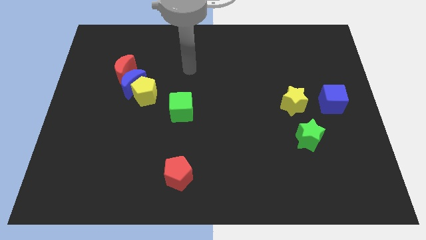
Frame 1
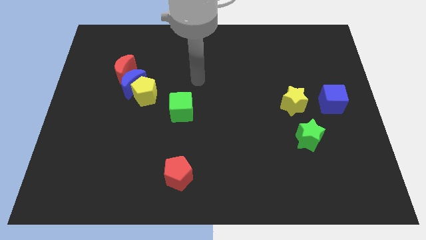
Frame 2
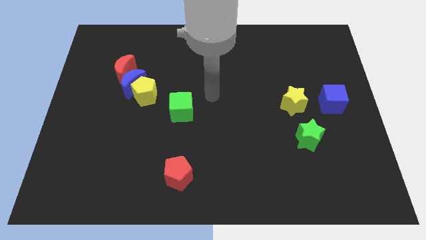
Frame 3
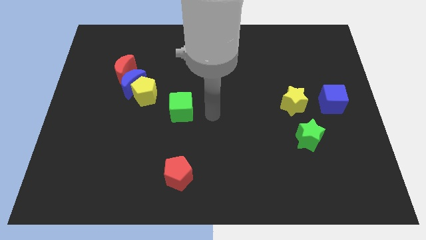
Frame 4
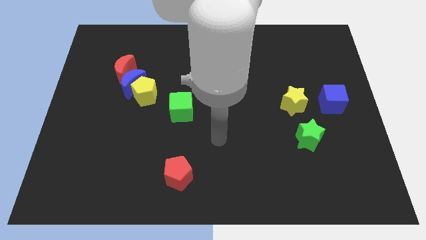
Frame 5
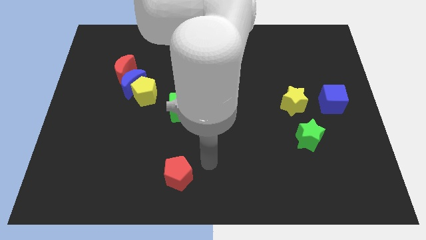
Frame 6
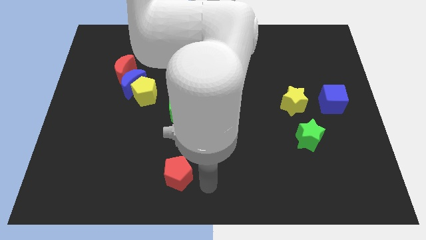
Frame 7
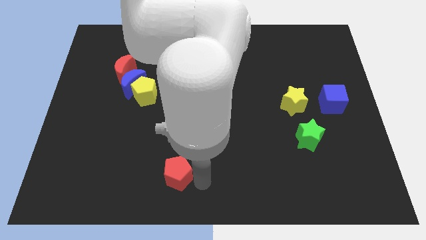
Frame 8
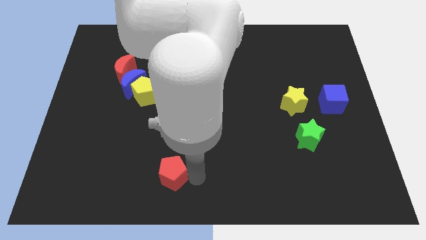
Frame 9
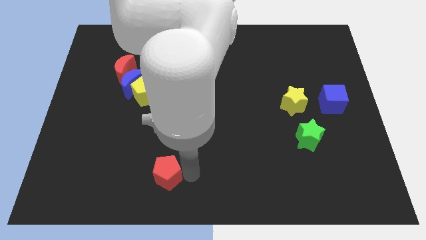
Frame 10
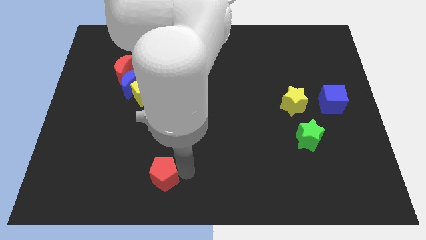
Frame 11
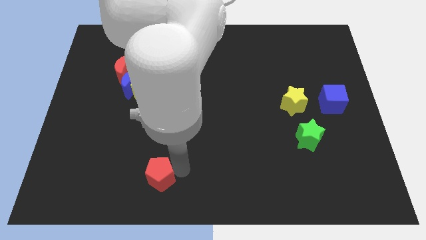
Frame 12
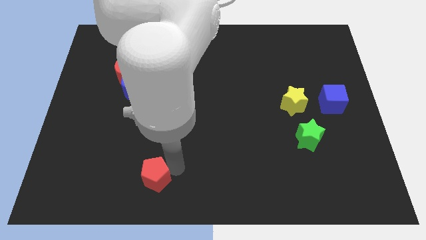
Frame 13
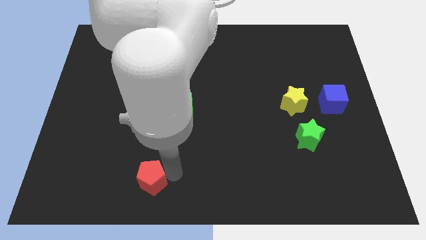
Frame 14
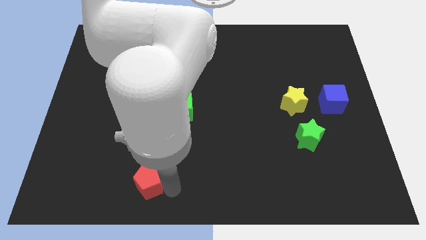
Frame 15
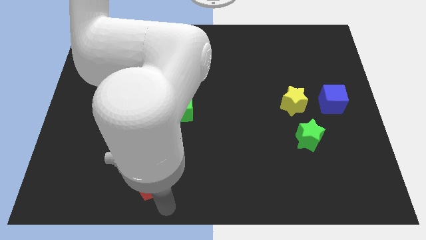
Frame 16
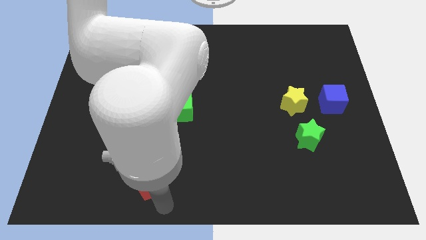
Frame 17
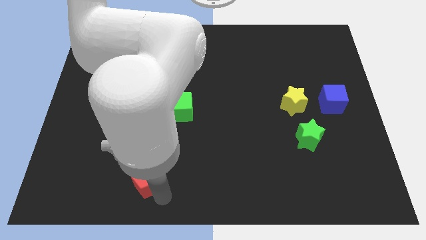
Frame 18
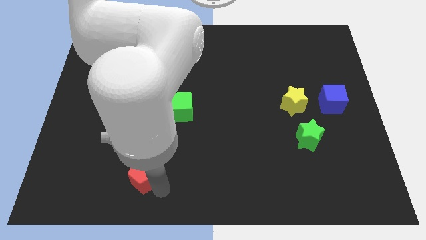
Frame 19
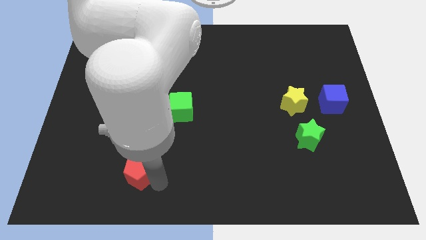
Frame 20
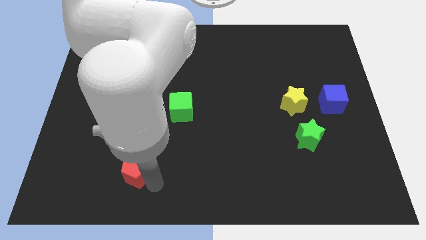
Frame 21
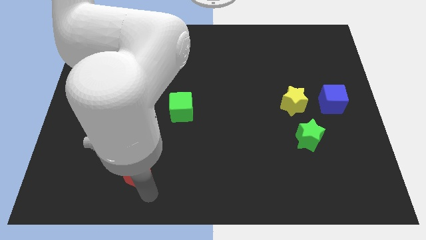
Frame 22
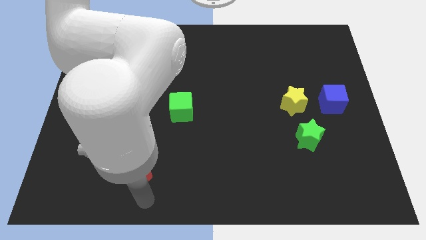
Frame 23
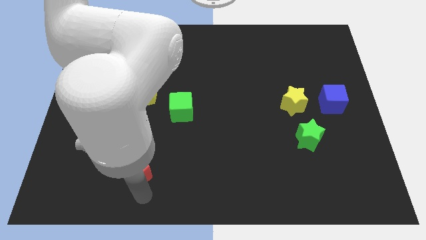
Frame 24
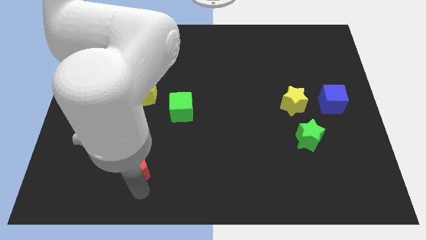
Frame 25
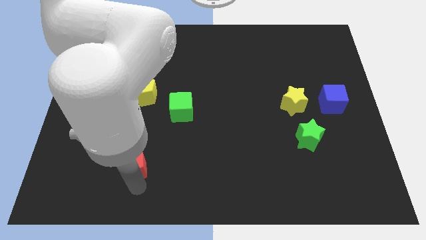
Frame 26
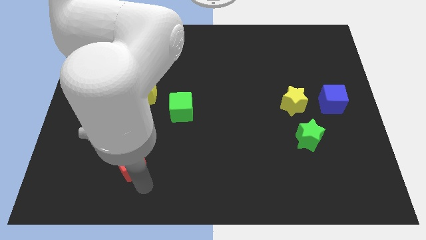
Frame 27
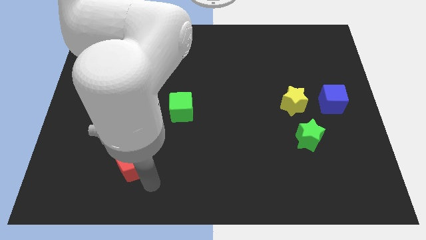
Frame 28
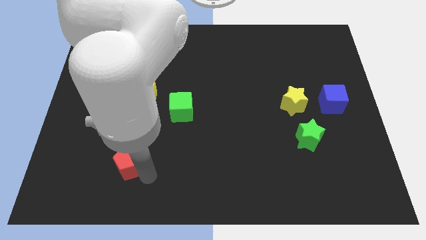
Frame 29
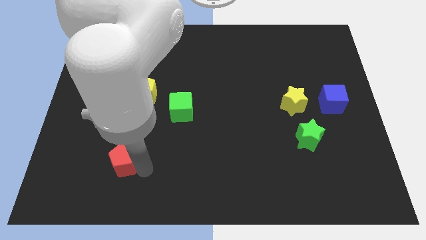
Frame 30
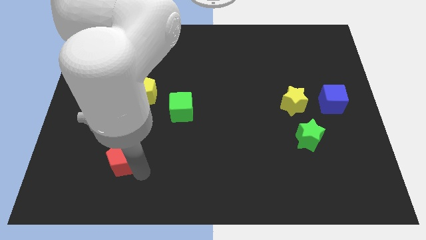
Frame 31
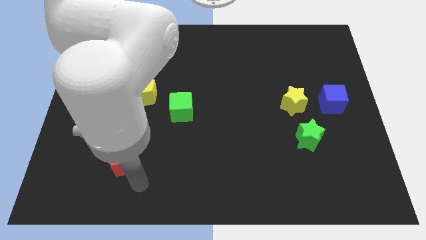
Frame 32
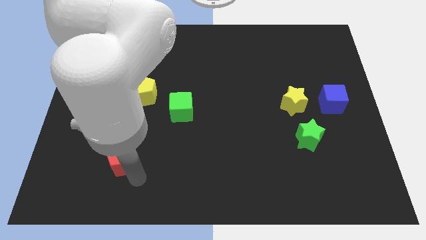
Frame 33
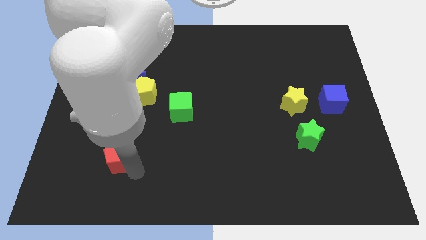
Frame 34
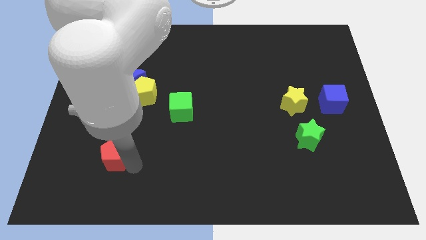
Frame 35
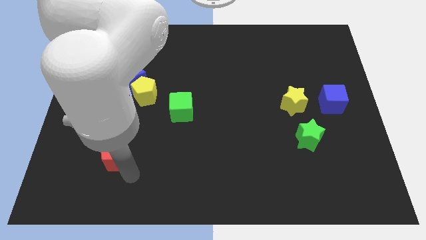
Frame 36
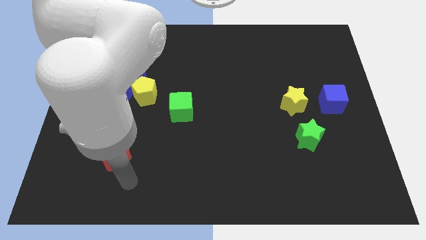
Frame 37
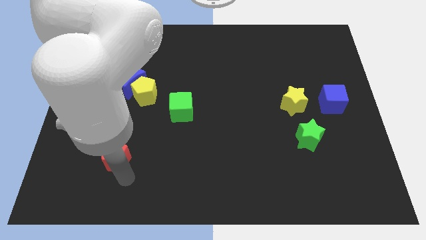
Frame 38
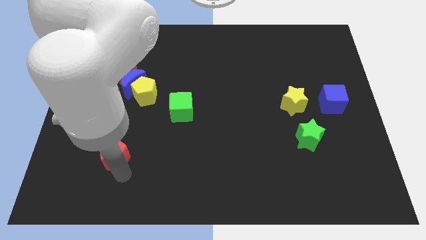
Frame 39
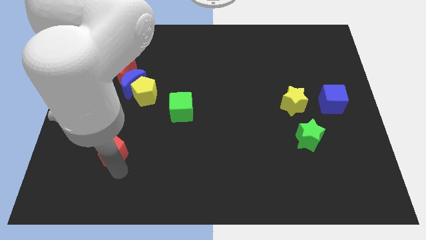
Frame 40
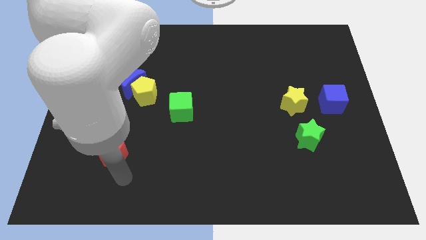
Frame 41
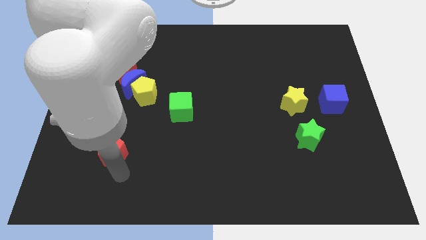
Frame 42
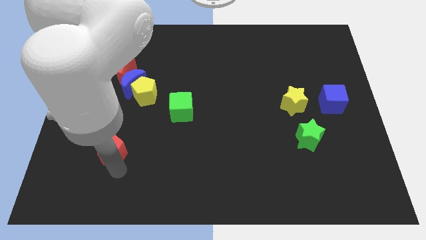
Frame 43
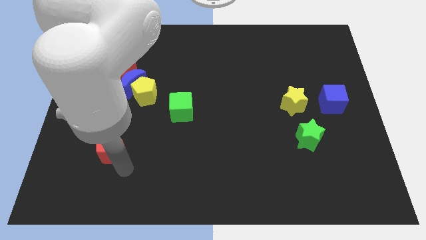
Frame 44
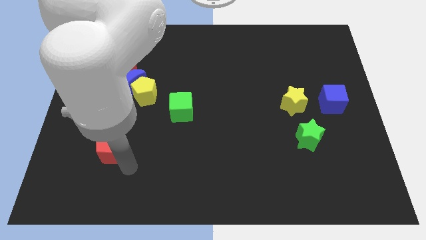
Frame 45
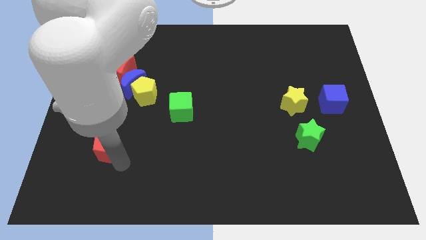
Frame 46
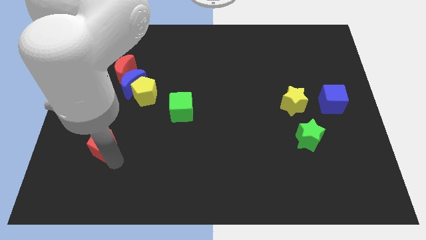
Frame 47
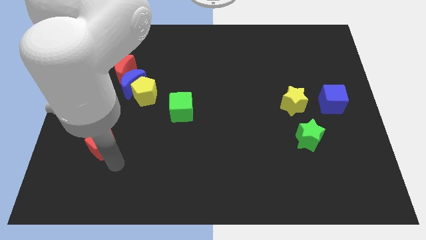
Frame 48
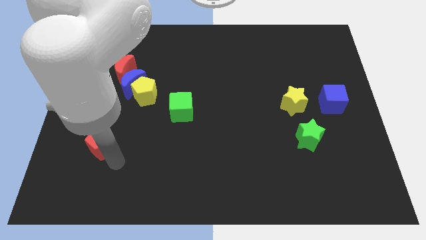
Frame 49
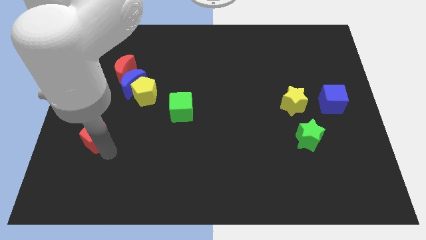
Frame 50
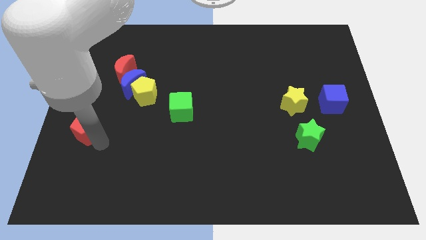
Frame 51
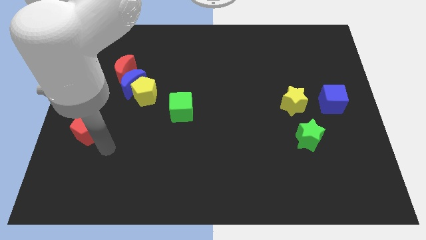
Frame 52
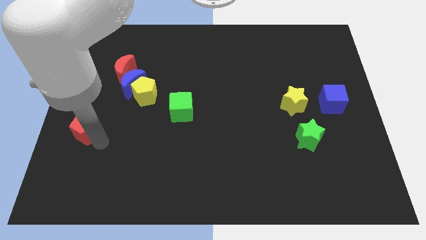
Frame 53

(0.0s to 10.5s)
slide the red pentagon to the left side of the board

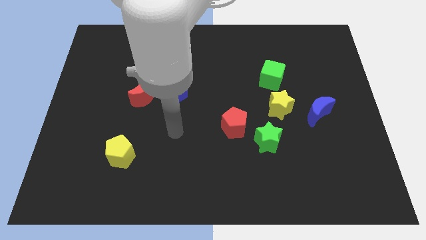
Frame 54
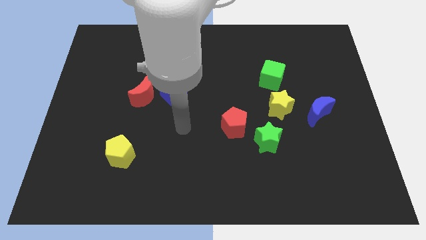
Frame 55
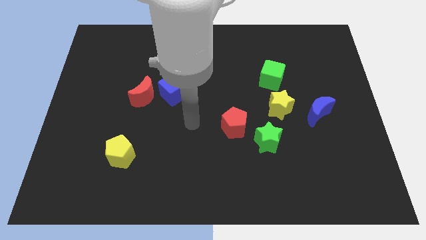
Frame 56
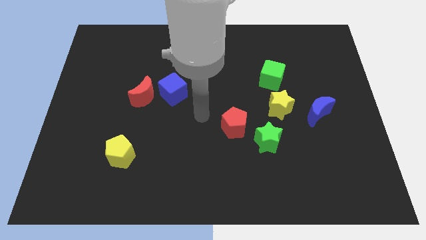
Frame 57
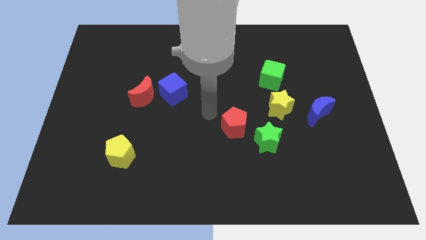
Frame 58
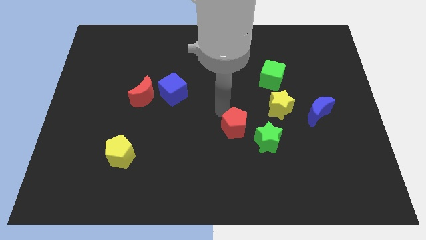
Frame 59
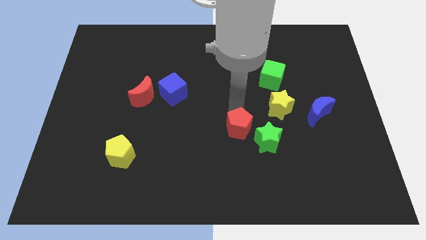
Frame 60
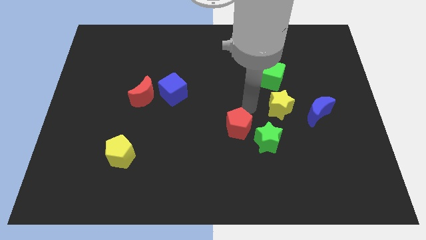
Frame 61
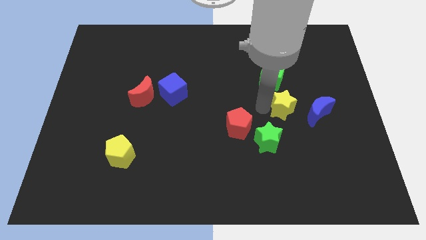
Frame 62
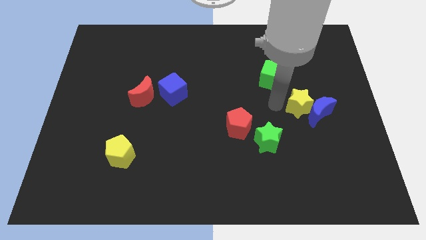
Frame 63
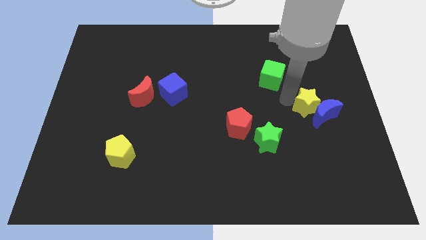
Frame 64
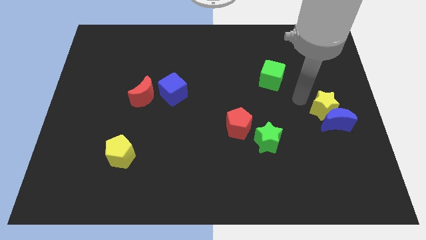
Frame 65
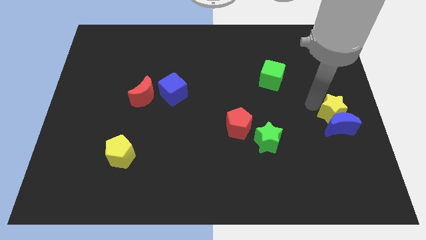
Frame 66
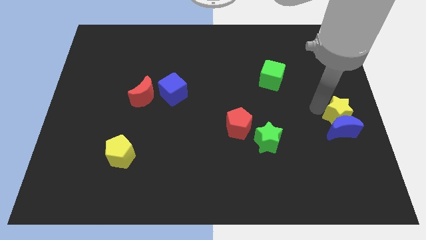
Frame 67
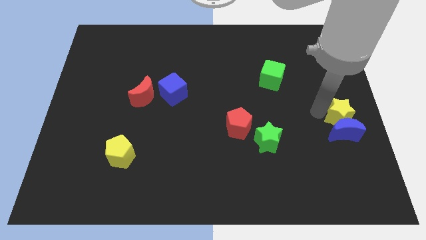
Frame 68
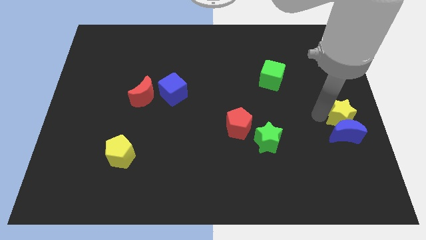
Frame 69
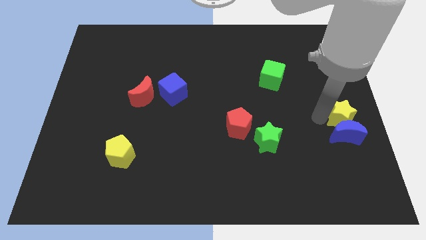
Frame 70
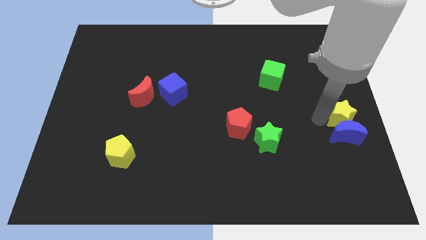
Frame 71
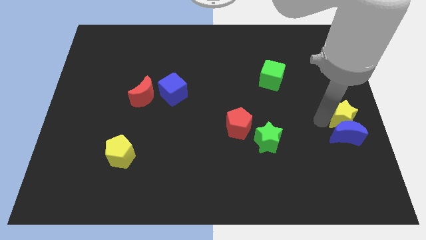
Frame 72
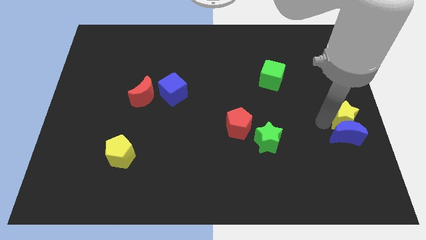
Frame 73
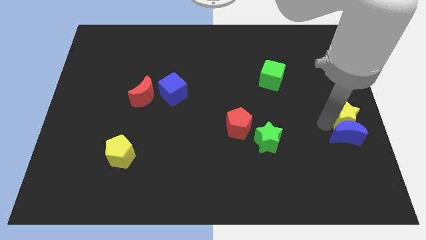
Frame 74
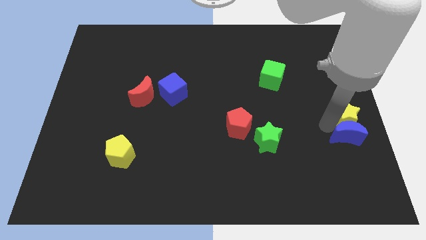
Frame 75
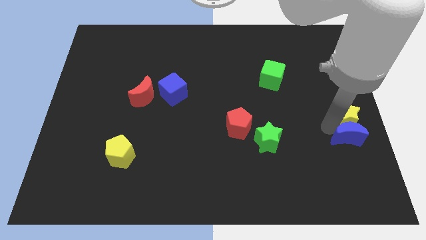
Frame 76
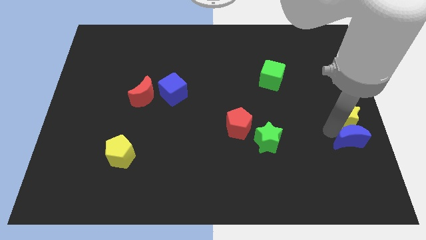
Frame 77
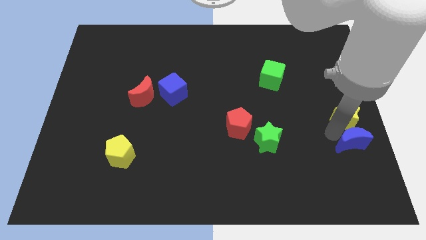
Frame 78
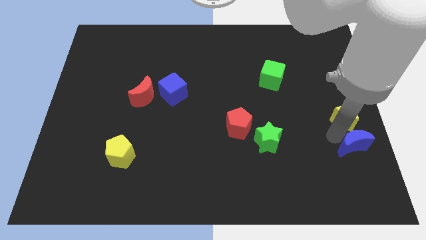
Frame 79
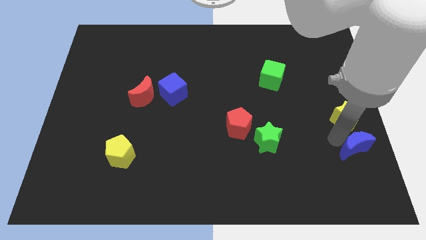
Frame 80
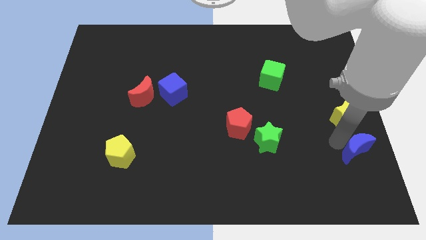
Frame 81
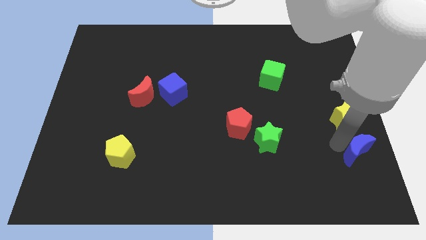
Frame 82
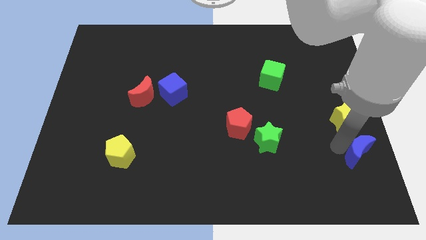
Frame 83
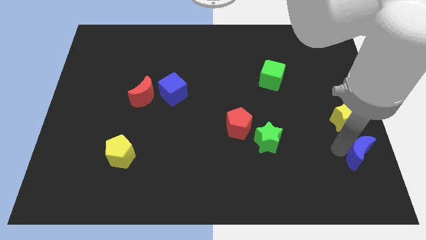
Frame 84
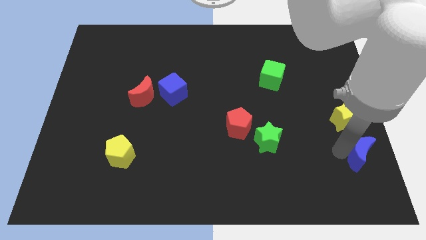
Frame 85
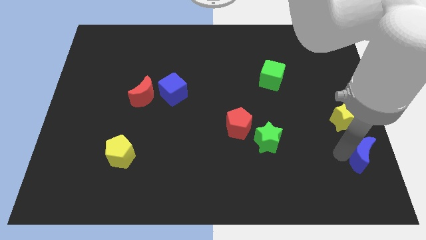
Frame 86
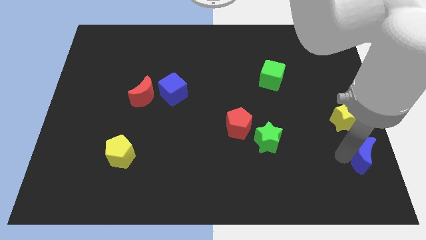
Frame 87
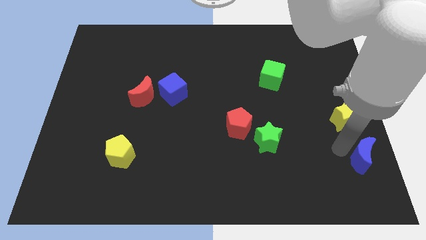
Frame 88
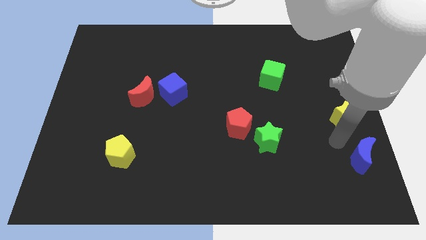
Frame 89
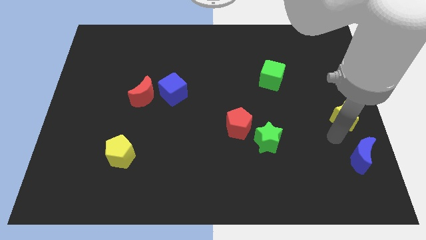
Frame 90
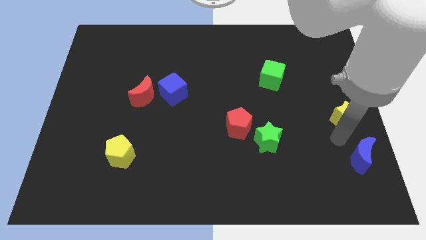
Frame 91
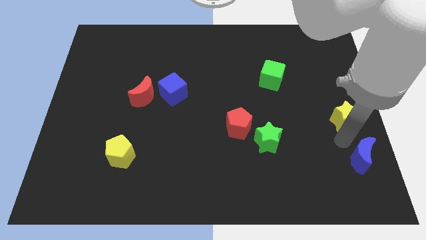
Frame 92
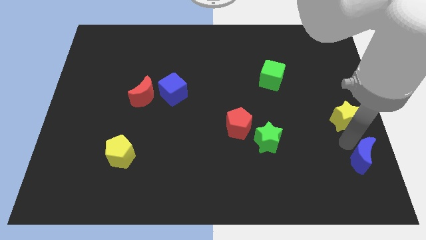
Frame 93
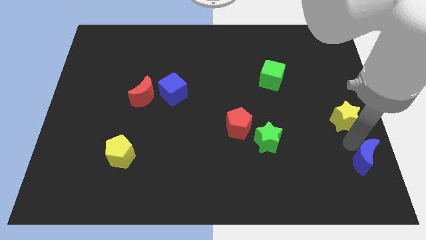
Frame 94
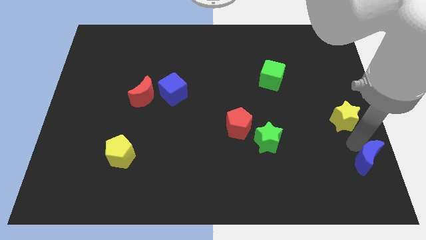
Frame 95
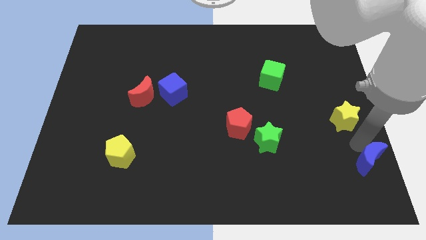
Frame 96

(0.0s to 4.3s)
move the blue moon to the bottom right
